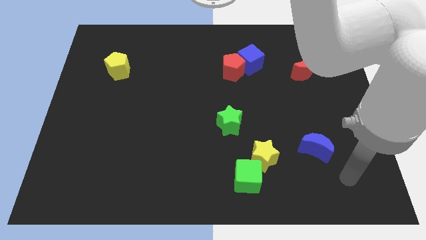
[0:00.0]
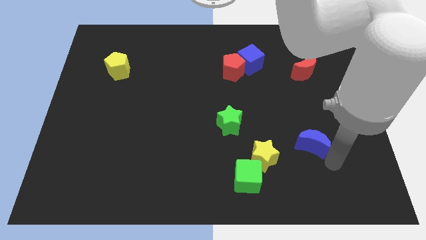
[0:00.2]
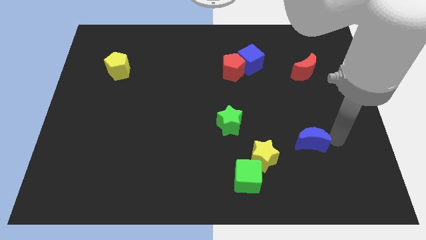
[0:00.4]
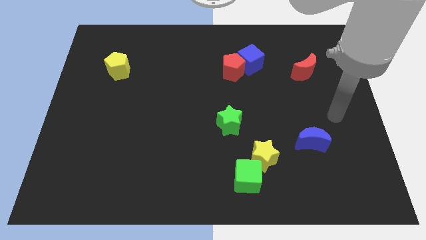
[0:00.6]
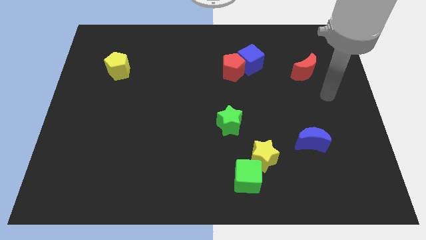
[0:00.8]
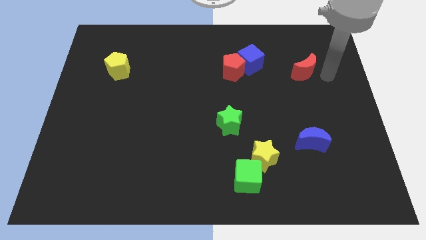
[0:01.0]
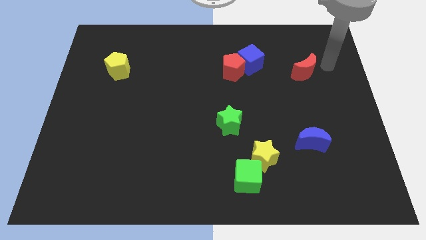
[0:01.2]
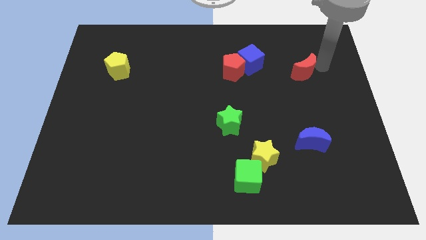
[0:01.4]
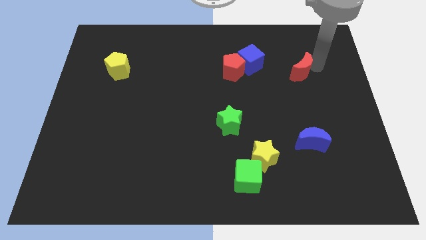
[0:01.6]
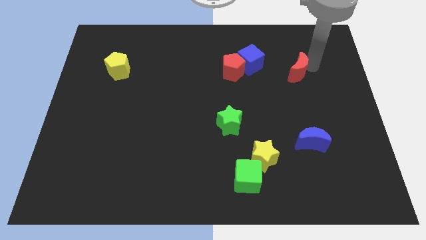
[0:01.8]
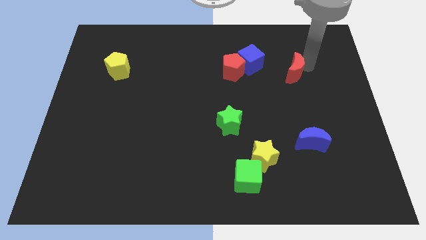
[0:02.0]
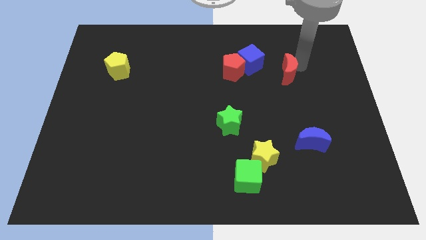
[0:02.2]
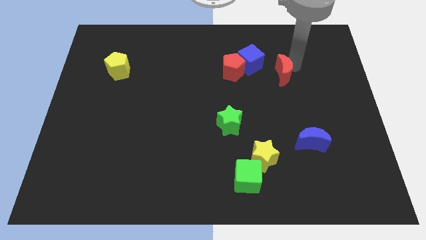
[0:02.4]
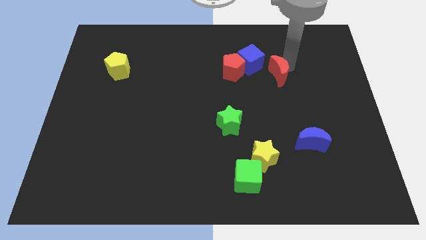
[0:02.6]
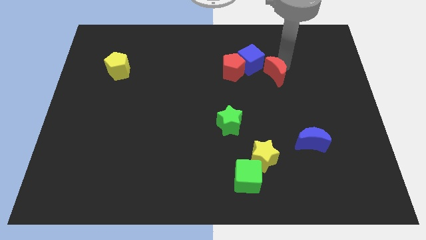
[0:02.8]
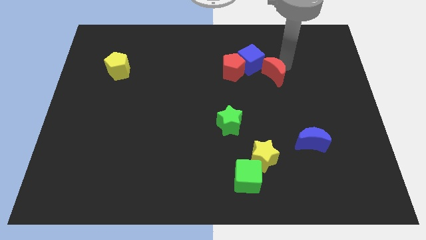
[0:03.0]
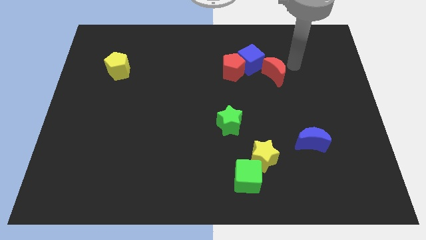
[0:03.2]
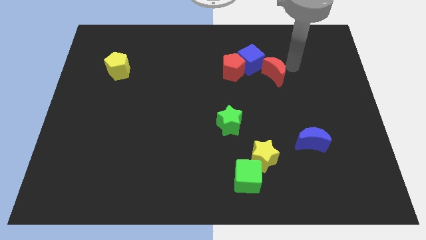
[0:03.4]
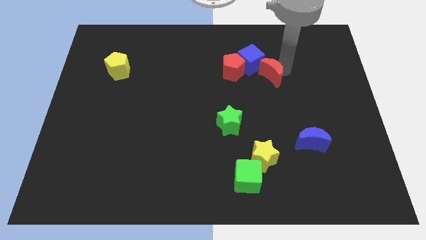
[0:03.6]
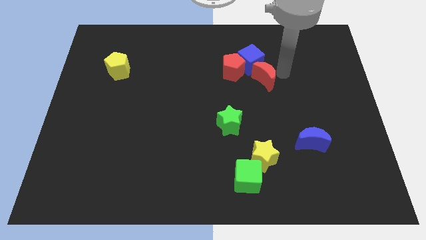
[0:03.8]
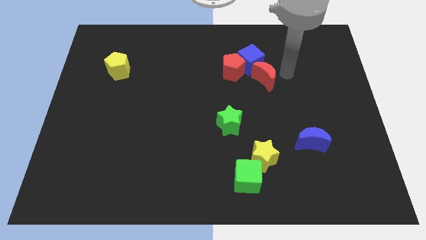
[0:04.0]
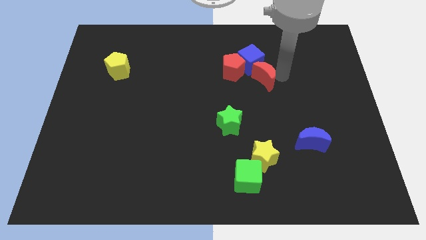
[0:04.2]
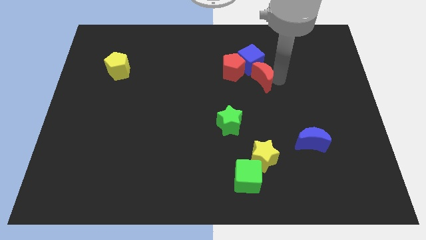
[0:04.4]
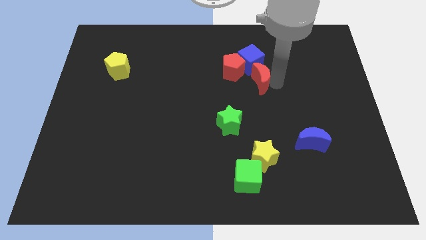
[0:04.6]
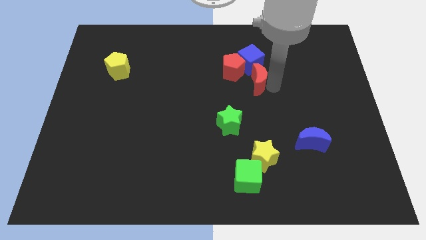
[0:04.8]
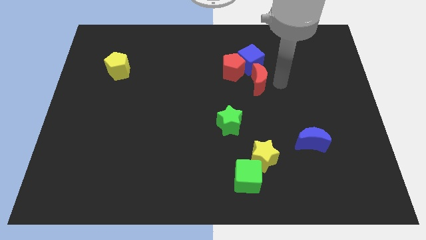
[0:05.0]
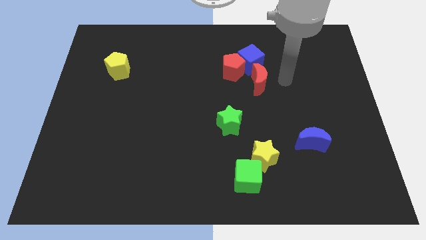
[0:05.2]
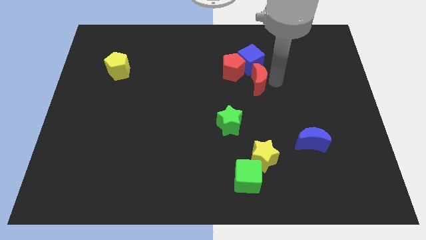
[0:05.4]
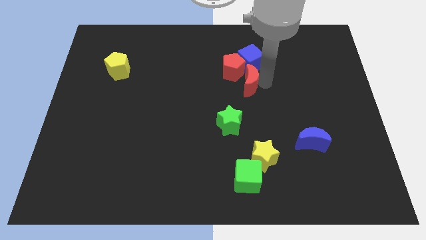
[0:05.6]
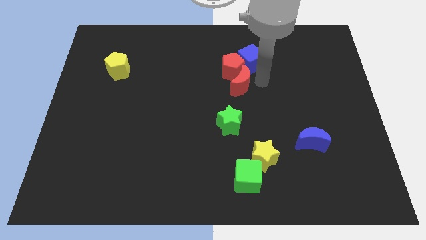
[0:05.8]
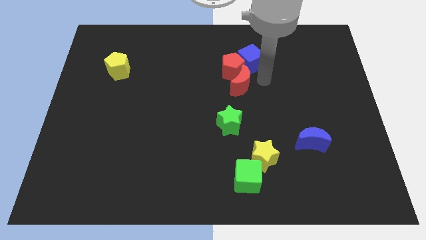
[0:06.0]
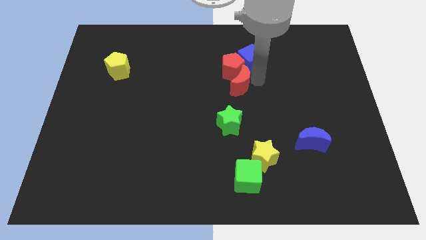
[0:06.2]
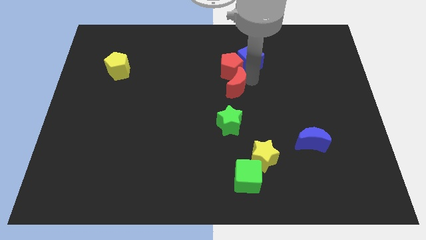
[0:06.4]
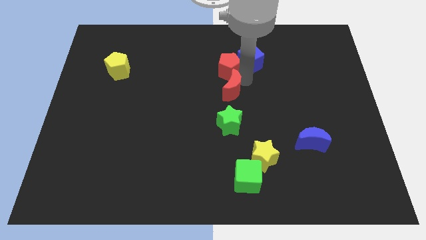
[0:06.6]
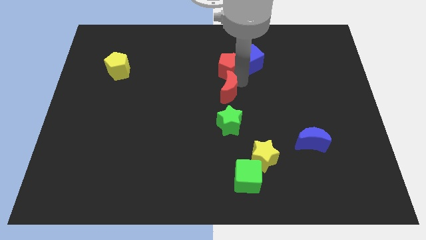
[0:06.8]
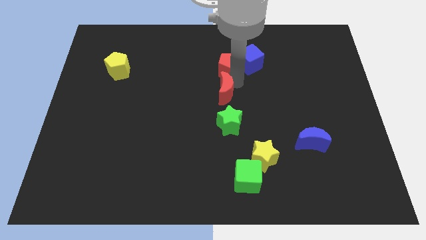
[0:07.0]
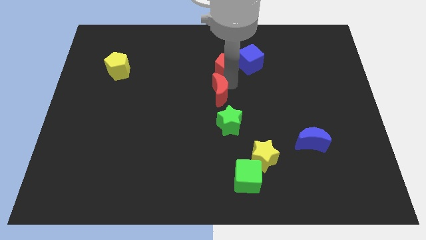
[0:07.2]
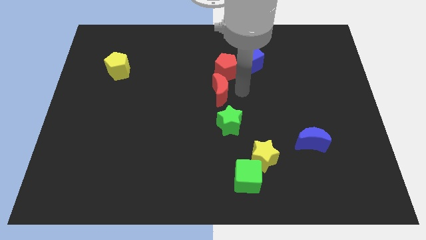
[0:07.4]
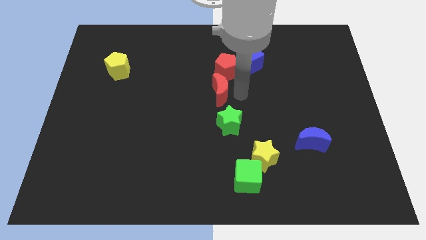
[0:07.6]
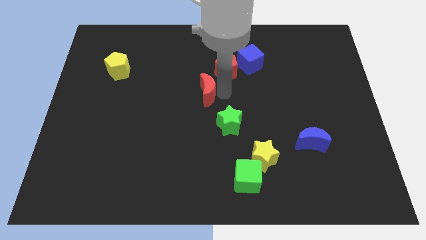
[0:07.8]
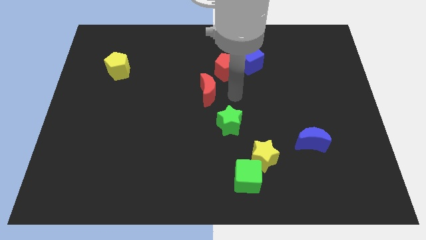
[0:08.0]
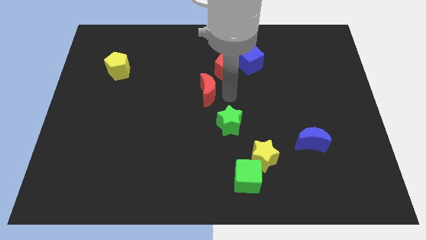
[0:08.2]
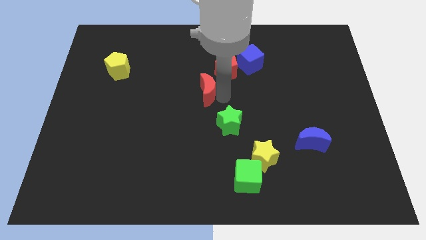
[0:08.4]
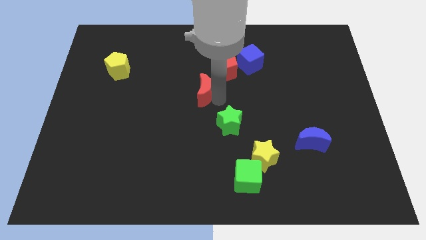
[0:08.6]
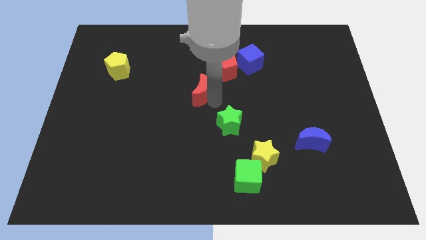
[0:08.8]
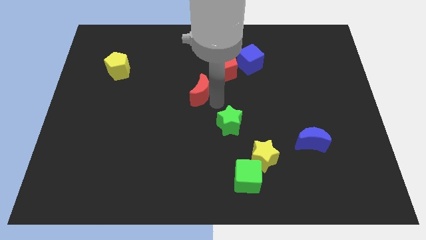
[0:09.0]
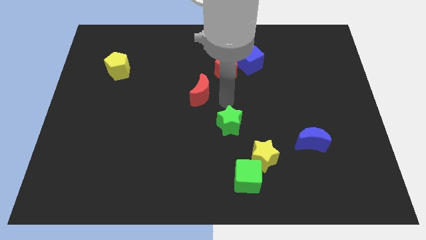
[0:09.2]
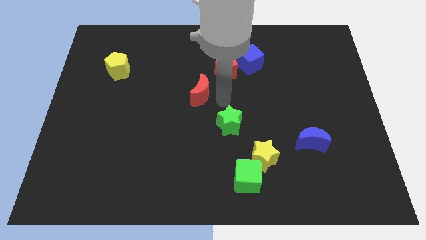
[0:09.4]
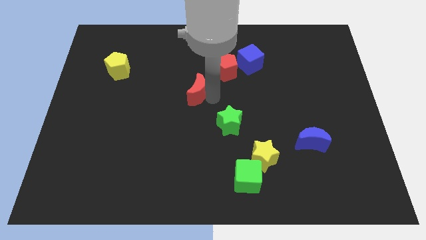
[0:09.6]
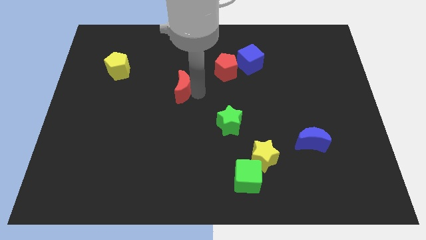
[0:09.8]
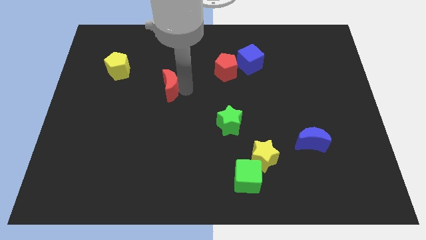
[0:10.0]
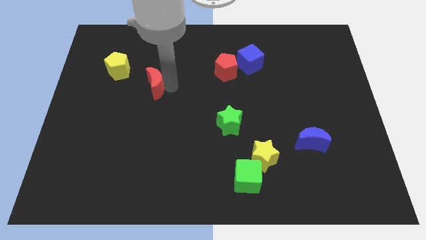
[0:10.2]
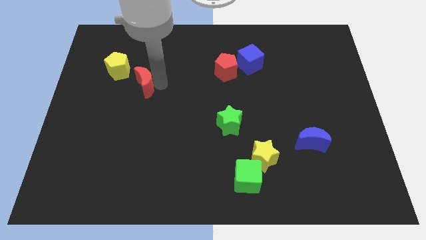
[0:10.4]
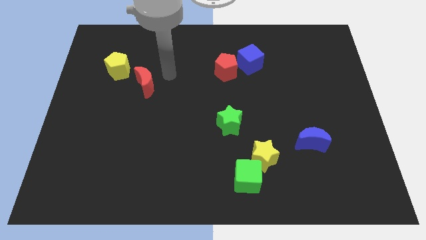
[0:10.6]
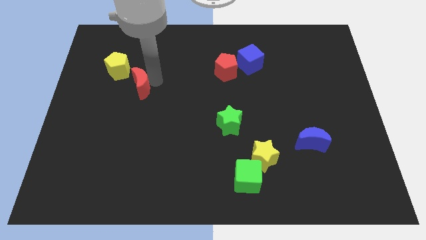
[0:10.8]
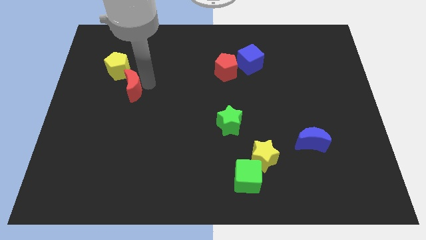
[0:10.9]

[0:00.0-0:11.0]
slide the red moon to the bottom side of the yellow pentagon

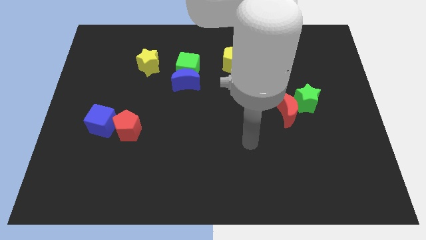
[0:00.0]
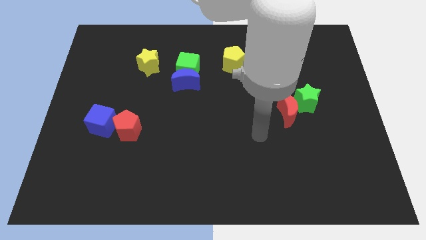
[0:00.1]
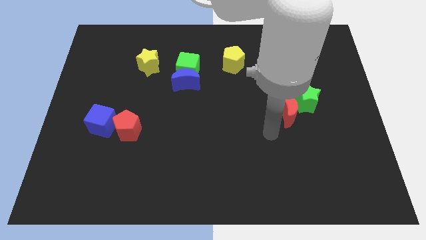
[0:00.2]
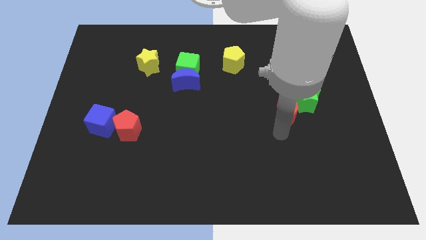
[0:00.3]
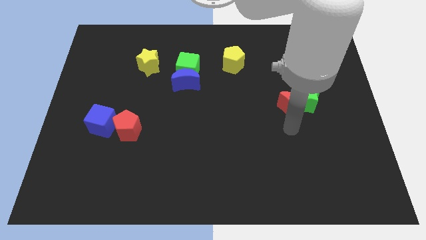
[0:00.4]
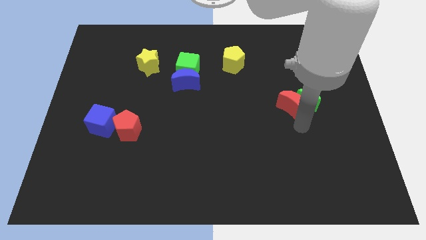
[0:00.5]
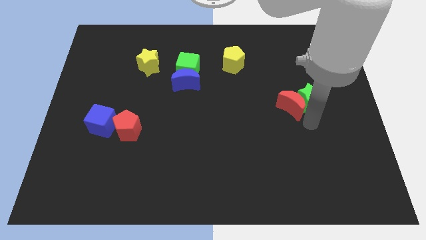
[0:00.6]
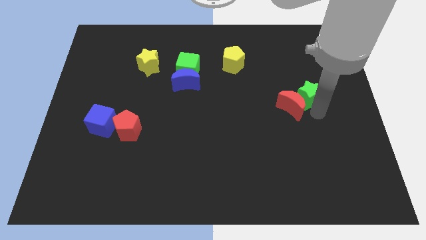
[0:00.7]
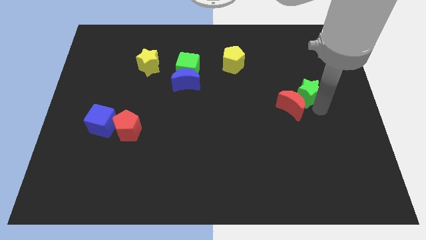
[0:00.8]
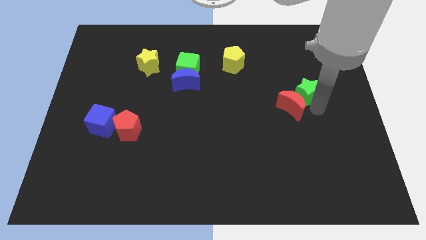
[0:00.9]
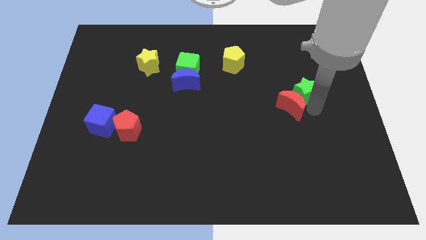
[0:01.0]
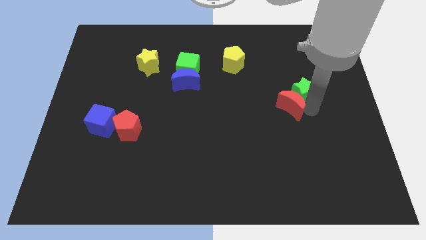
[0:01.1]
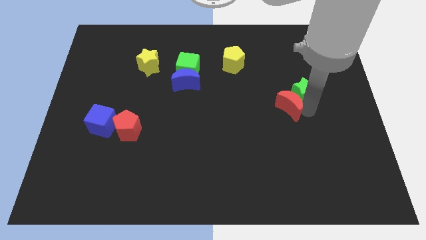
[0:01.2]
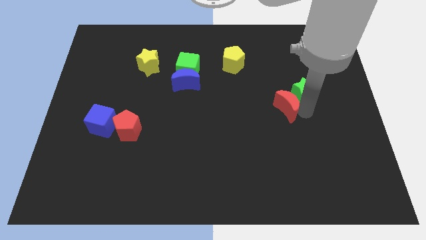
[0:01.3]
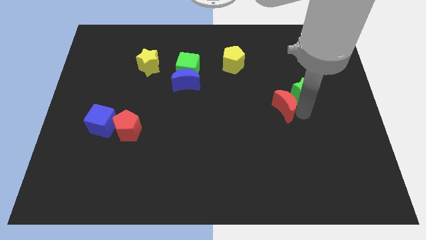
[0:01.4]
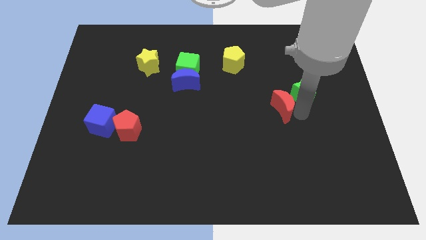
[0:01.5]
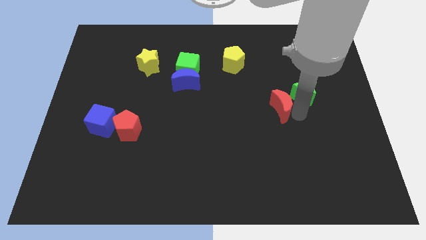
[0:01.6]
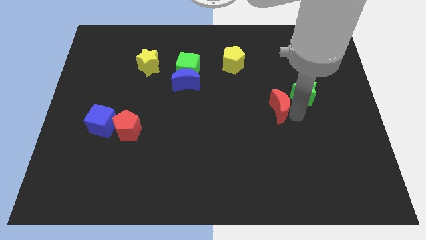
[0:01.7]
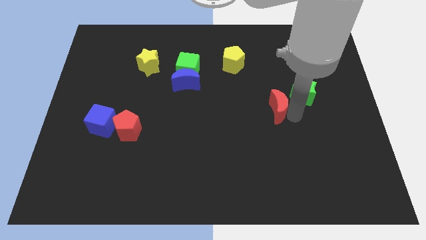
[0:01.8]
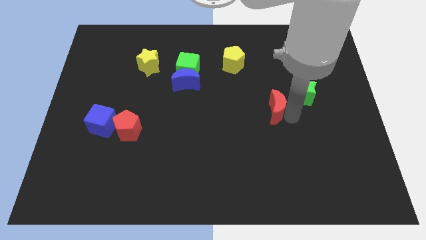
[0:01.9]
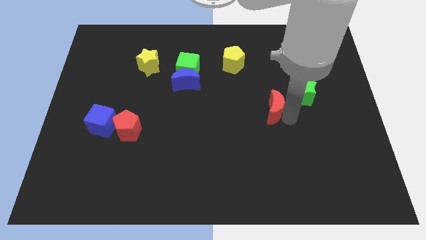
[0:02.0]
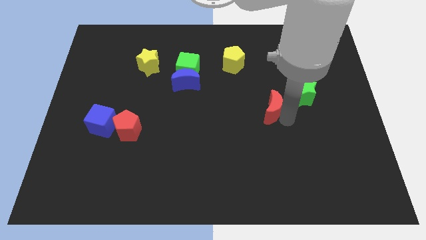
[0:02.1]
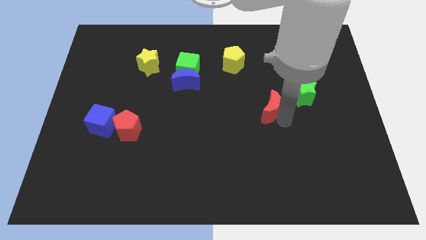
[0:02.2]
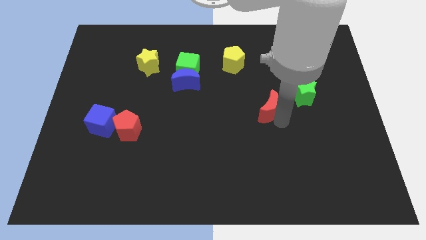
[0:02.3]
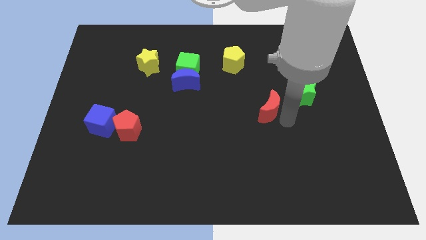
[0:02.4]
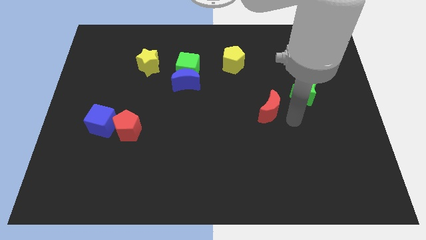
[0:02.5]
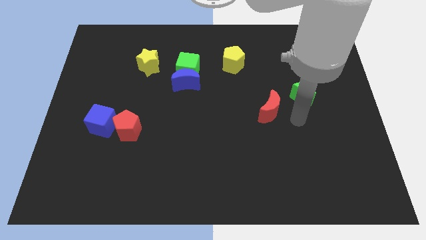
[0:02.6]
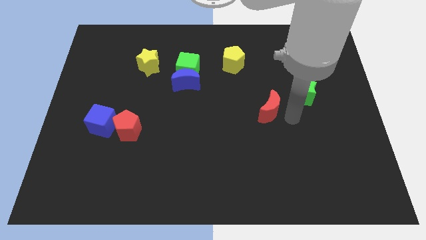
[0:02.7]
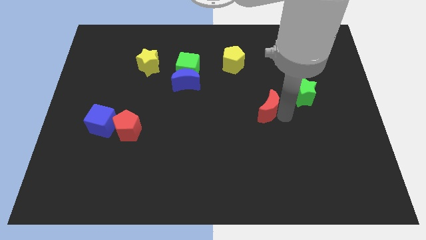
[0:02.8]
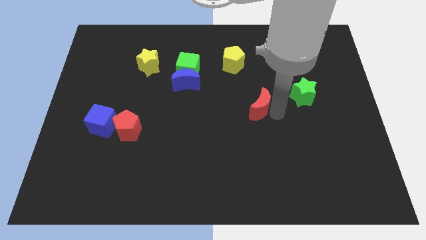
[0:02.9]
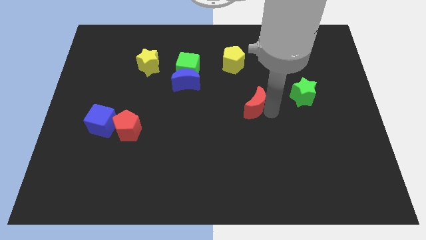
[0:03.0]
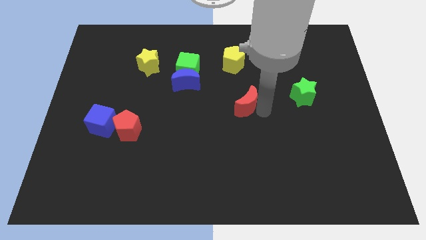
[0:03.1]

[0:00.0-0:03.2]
put the red moon to the bottom side of the yellow pentagon
